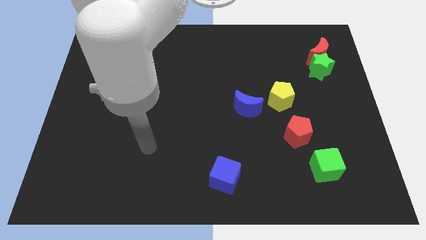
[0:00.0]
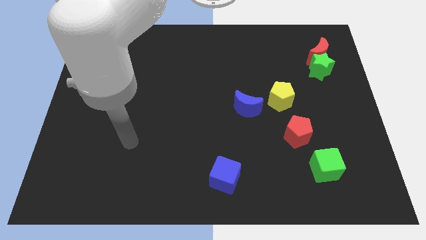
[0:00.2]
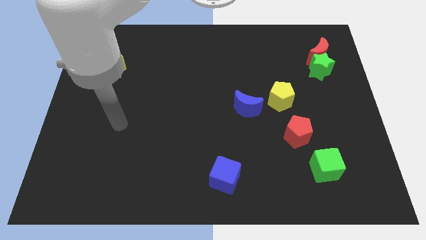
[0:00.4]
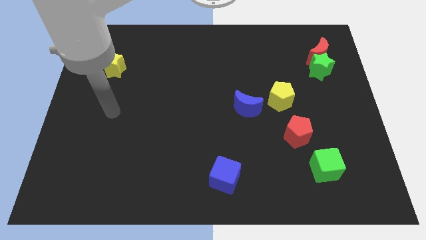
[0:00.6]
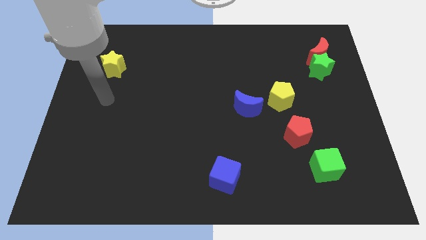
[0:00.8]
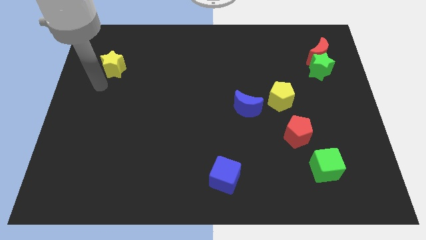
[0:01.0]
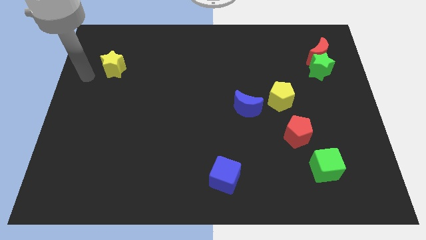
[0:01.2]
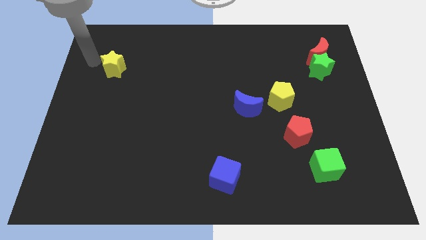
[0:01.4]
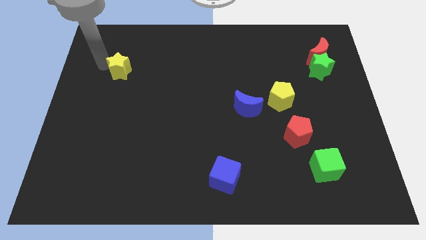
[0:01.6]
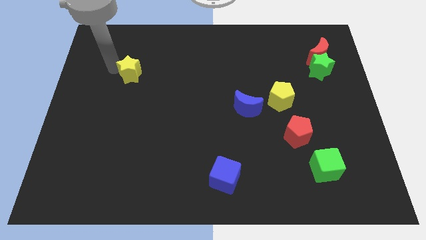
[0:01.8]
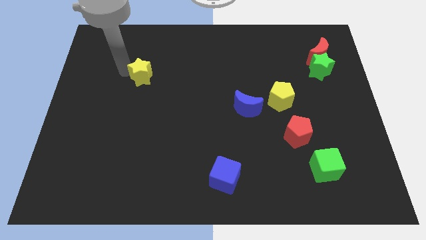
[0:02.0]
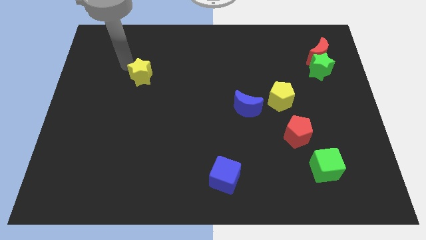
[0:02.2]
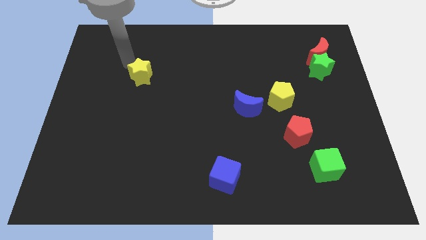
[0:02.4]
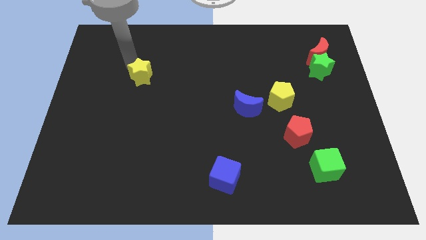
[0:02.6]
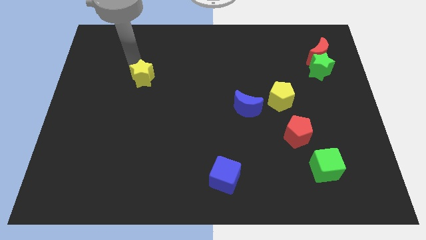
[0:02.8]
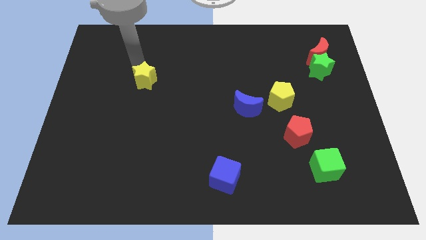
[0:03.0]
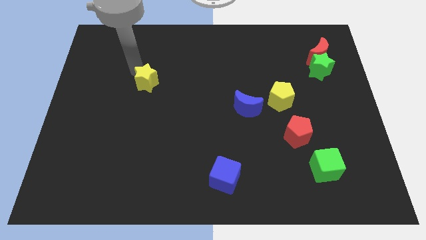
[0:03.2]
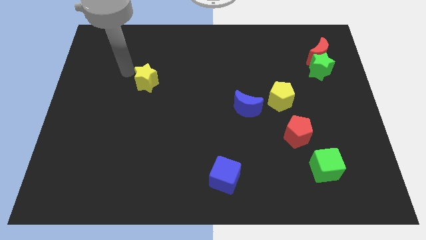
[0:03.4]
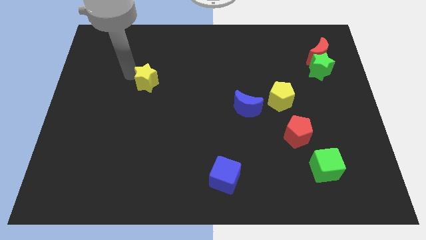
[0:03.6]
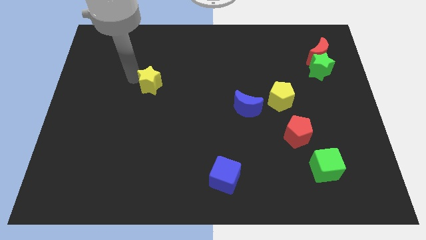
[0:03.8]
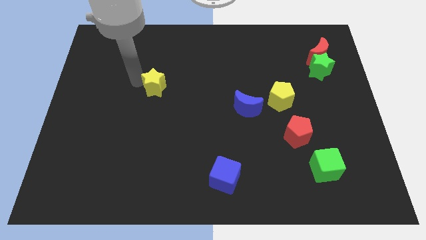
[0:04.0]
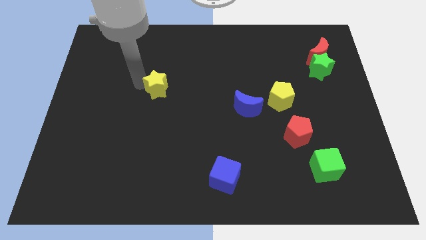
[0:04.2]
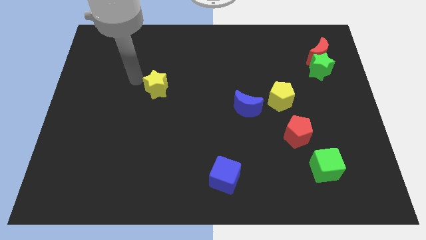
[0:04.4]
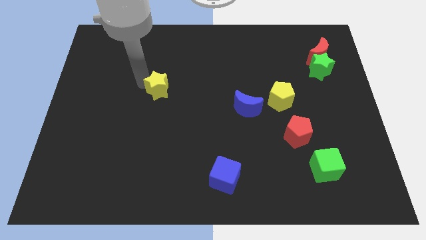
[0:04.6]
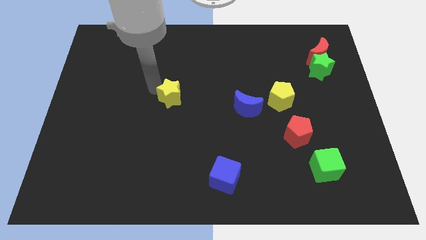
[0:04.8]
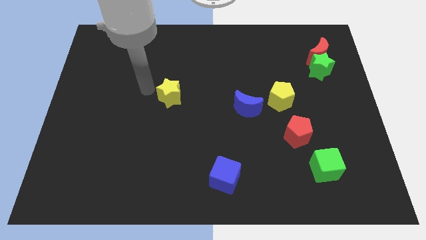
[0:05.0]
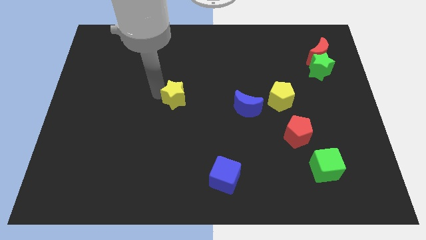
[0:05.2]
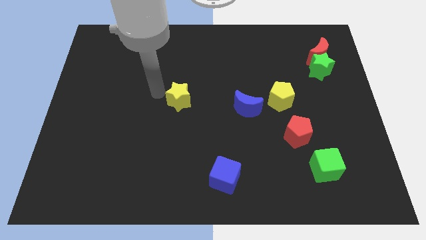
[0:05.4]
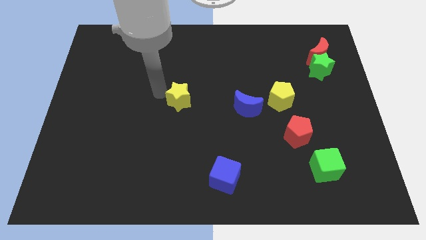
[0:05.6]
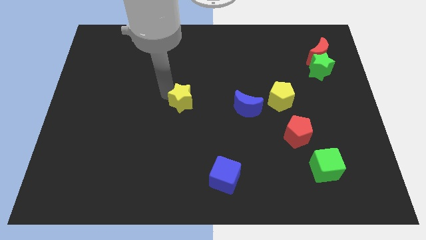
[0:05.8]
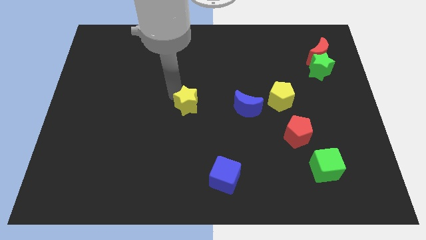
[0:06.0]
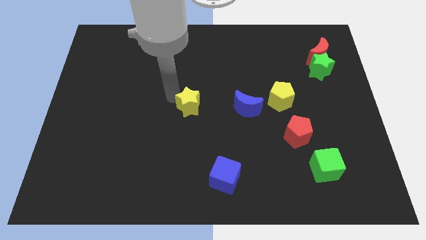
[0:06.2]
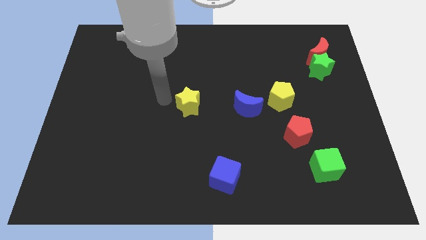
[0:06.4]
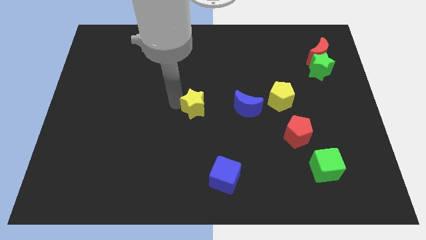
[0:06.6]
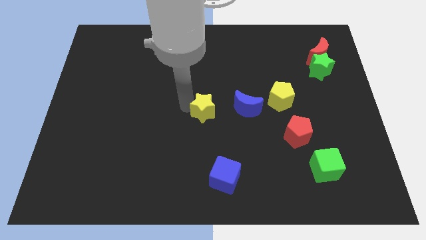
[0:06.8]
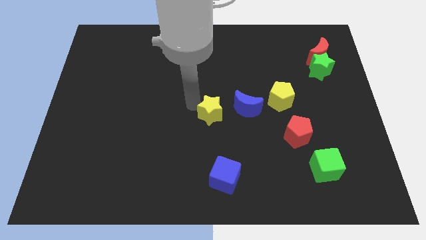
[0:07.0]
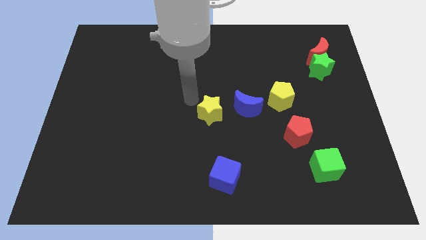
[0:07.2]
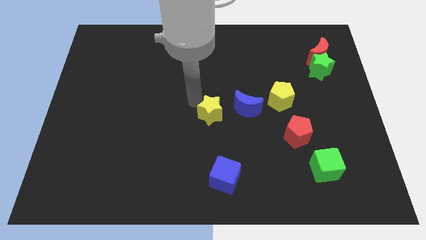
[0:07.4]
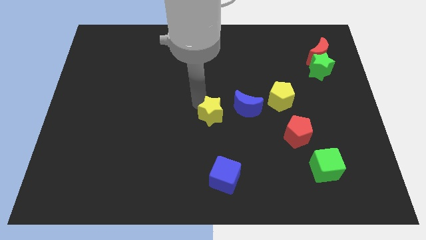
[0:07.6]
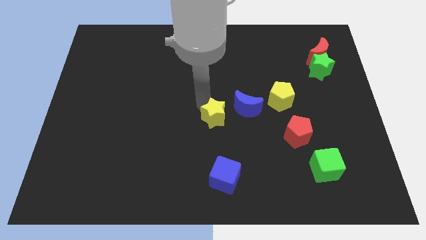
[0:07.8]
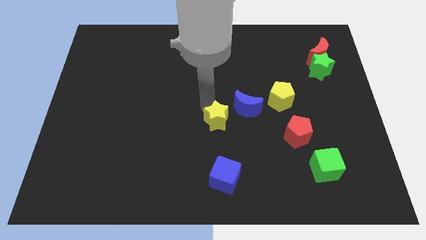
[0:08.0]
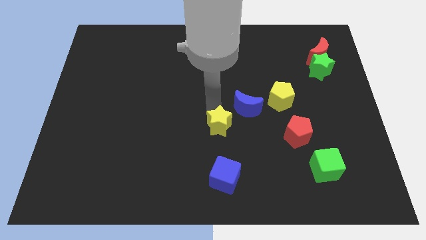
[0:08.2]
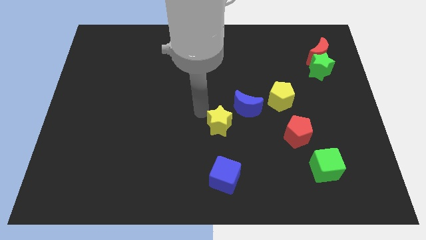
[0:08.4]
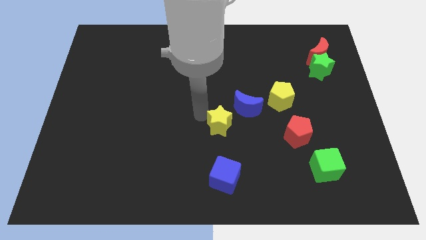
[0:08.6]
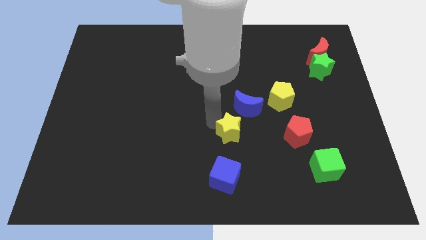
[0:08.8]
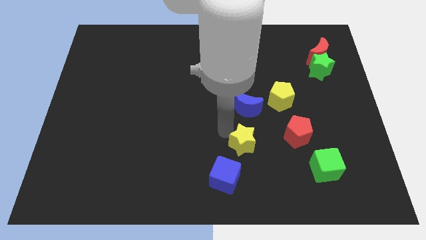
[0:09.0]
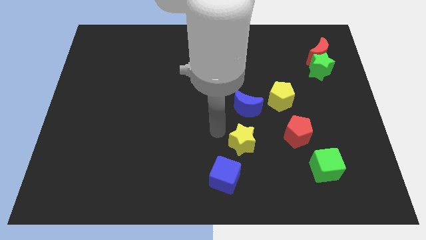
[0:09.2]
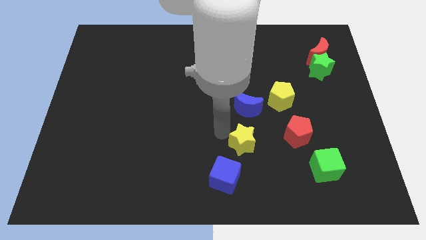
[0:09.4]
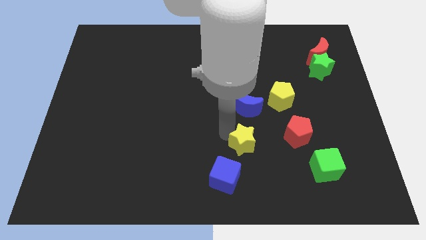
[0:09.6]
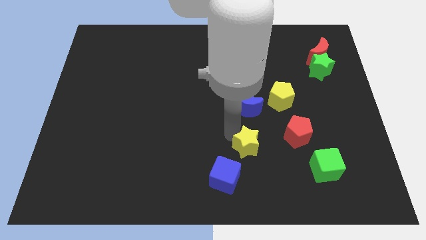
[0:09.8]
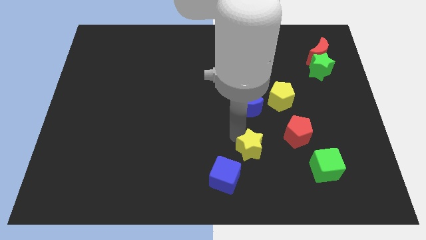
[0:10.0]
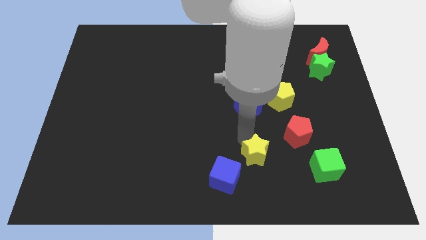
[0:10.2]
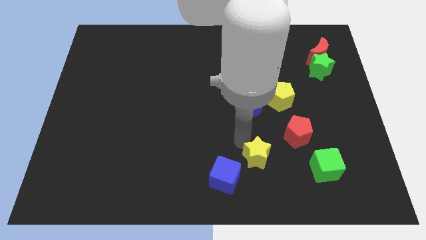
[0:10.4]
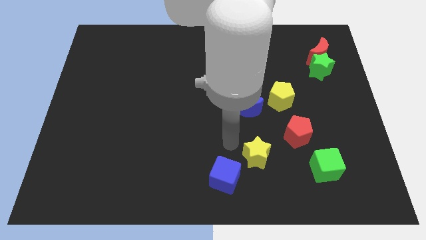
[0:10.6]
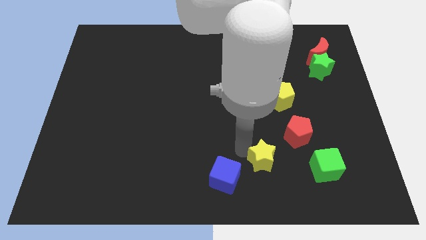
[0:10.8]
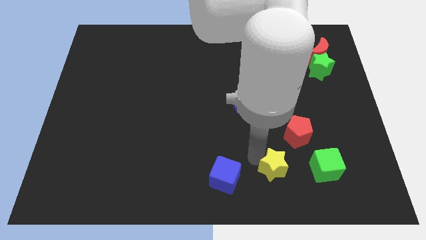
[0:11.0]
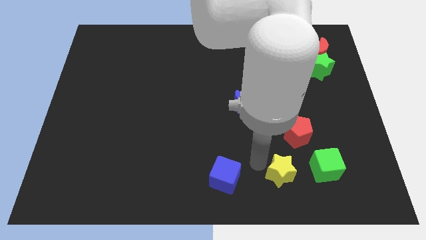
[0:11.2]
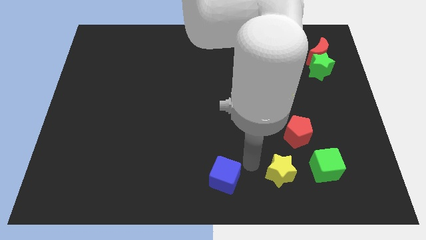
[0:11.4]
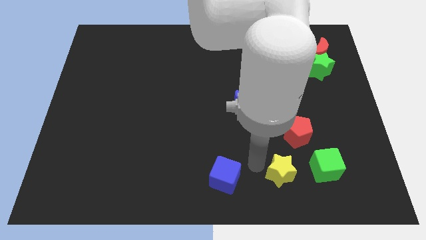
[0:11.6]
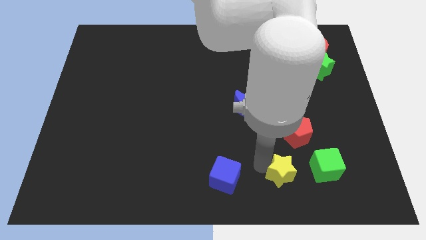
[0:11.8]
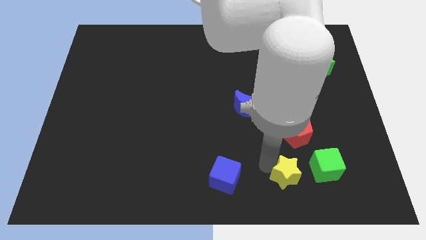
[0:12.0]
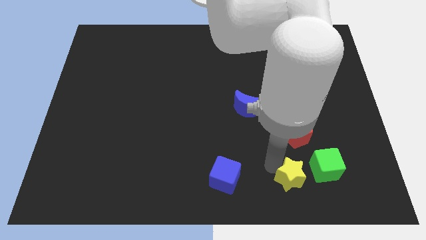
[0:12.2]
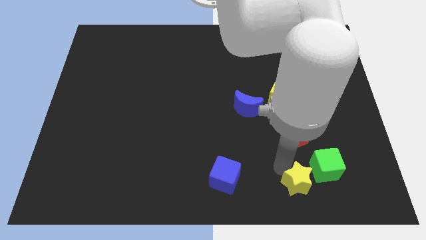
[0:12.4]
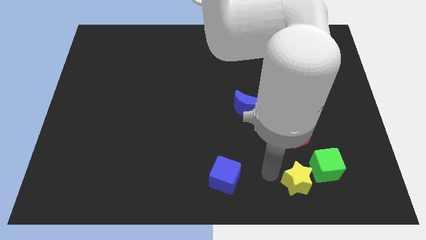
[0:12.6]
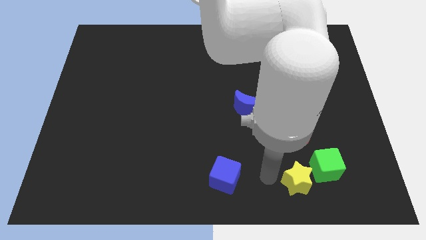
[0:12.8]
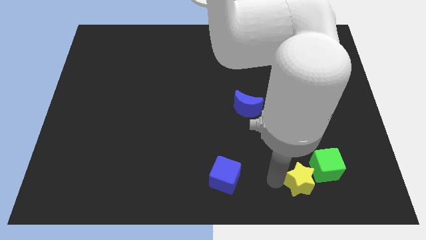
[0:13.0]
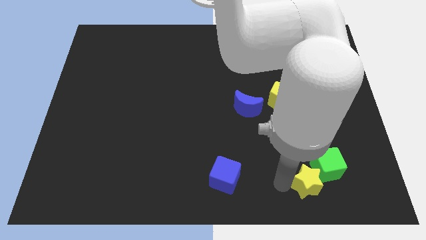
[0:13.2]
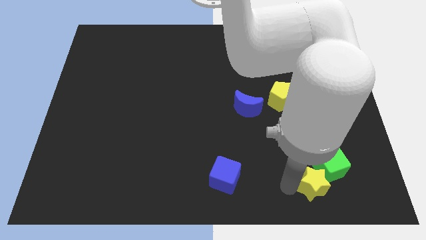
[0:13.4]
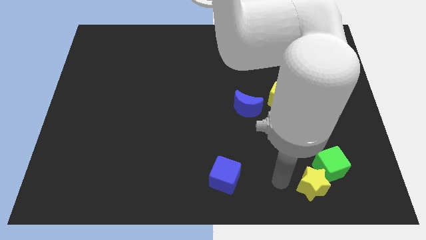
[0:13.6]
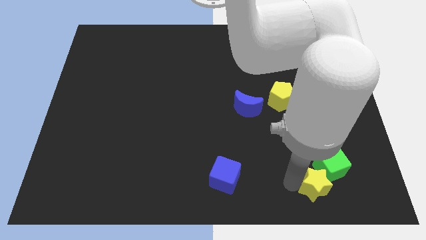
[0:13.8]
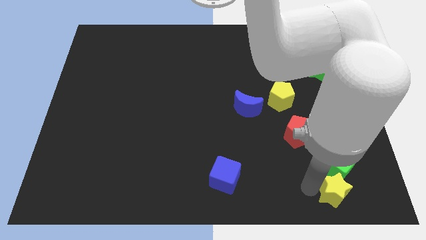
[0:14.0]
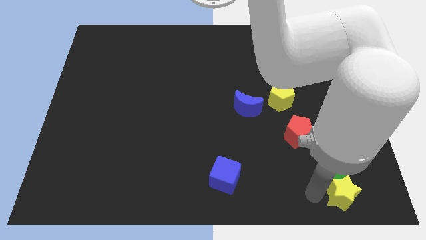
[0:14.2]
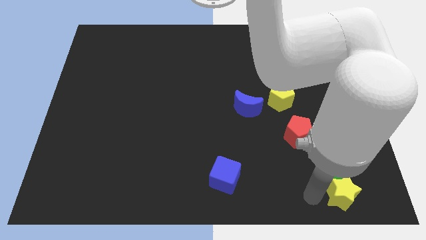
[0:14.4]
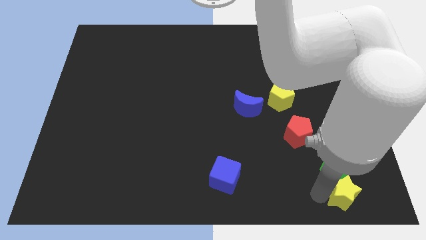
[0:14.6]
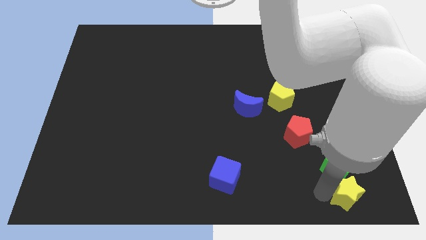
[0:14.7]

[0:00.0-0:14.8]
move the yellow star to the bottom right
